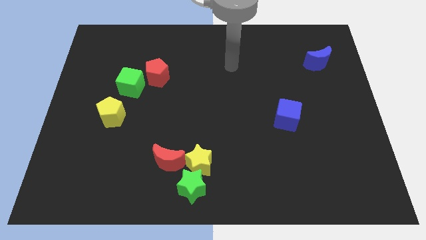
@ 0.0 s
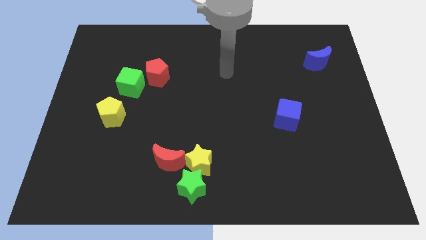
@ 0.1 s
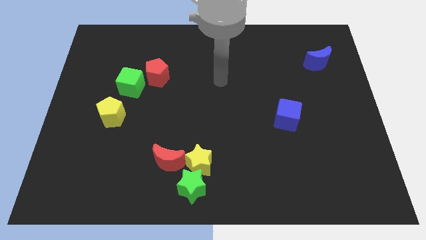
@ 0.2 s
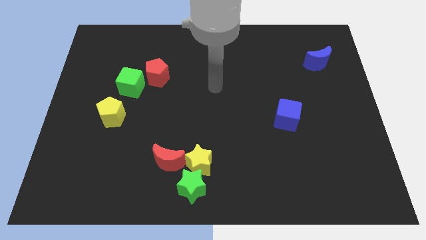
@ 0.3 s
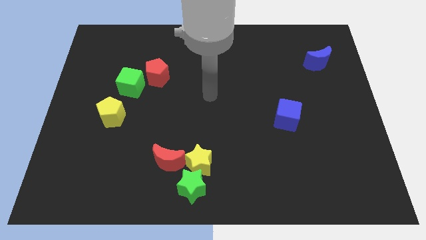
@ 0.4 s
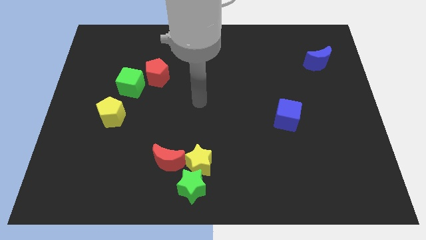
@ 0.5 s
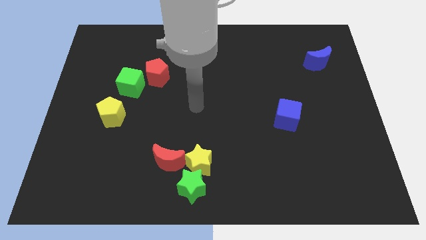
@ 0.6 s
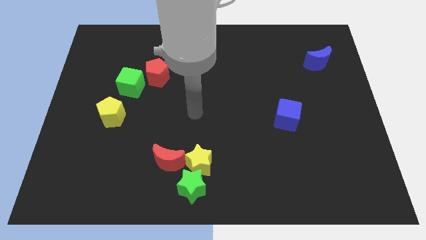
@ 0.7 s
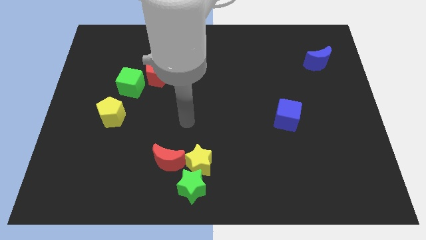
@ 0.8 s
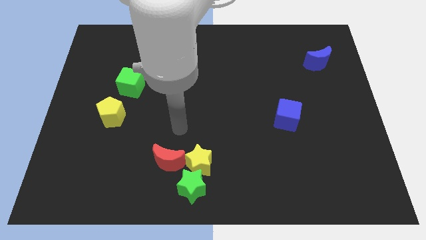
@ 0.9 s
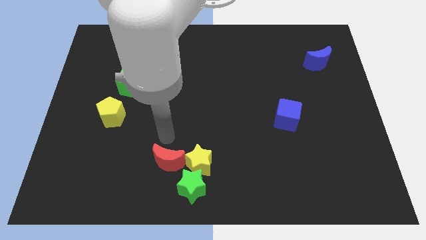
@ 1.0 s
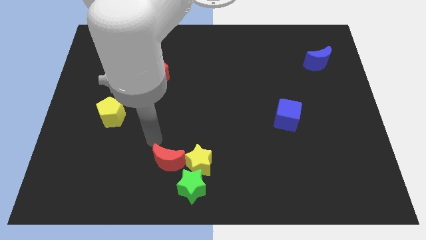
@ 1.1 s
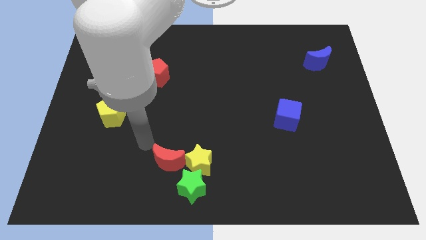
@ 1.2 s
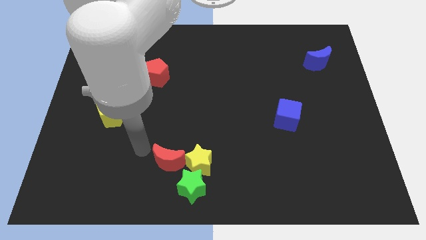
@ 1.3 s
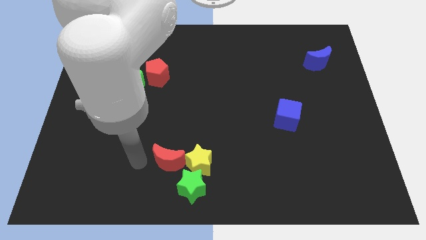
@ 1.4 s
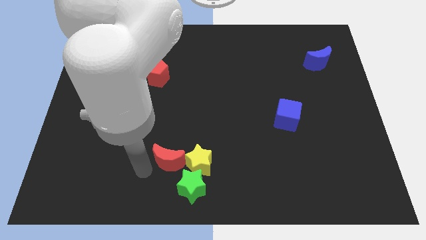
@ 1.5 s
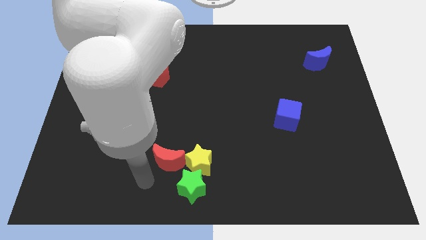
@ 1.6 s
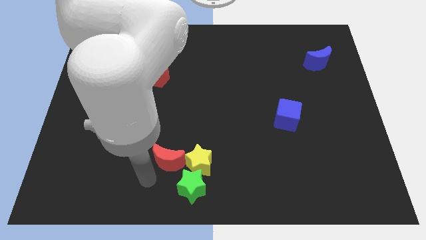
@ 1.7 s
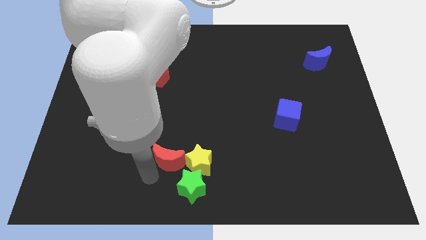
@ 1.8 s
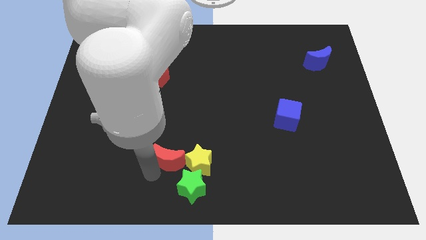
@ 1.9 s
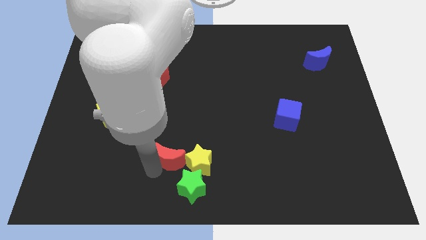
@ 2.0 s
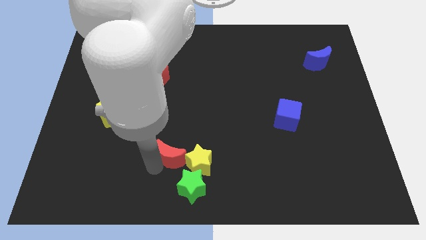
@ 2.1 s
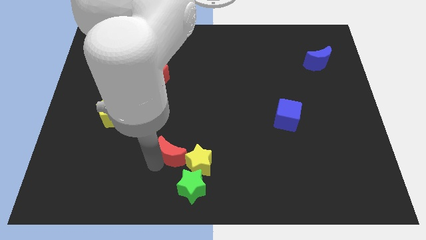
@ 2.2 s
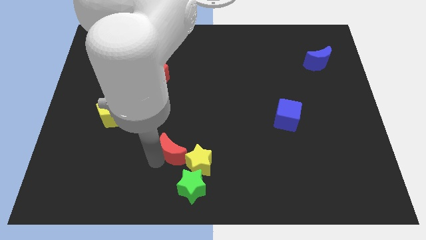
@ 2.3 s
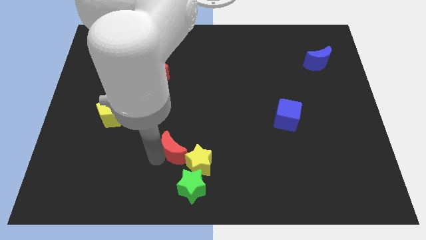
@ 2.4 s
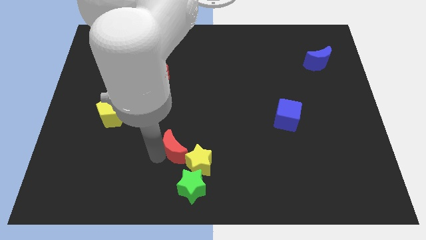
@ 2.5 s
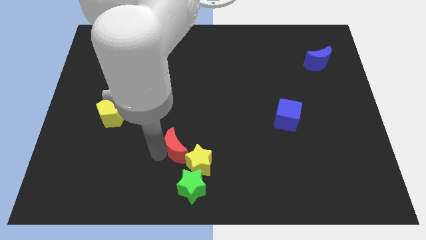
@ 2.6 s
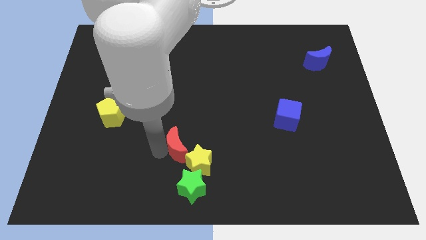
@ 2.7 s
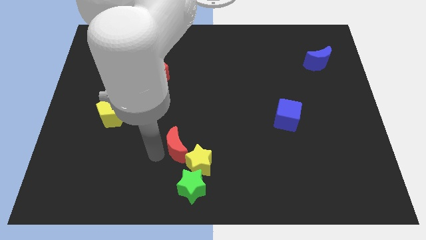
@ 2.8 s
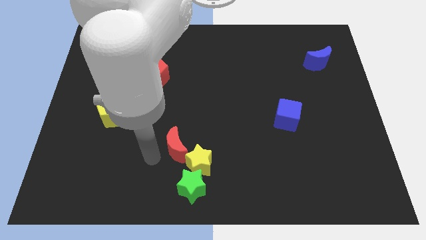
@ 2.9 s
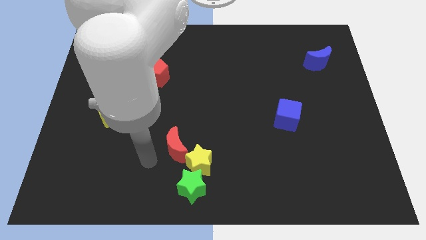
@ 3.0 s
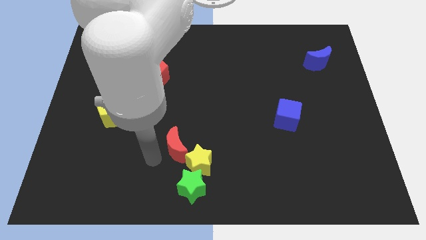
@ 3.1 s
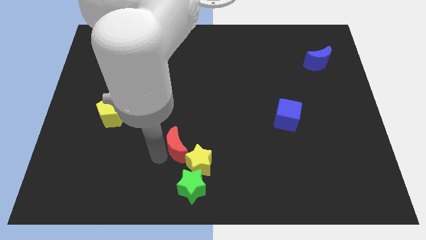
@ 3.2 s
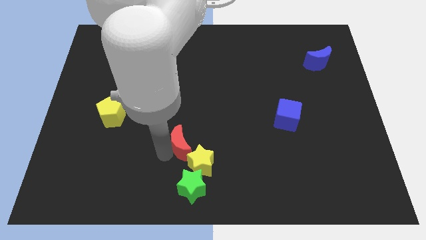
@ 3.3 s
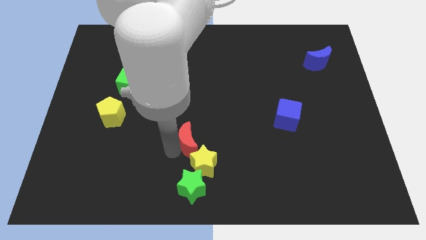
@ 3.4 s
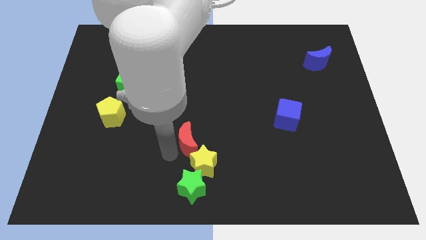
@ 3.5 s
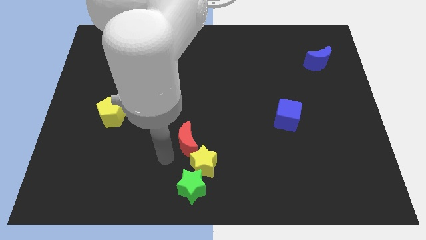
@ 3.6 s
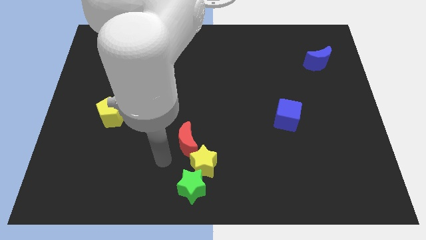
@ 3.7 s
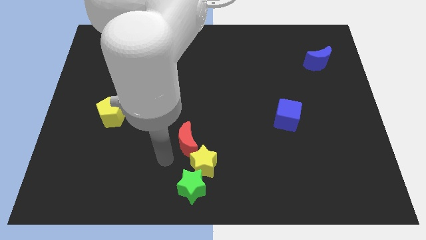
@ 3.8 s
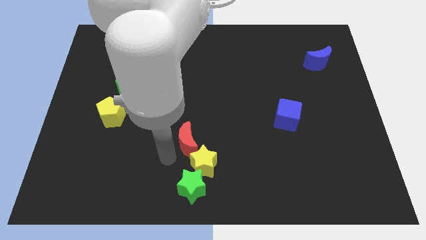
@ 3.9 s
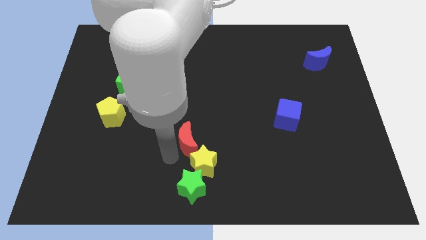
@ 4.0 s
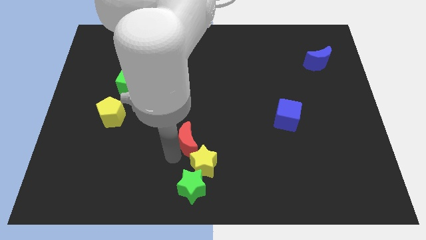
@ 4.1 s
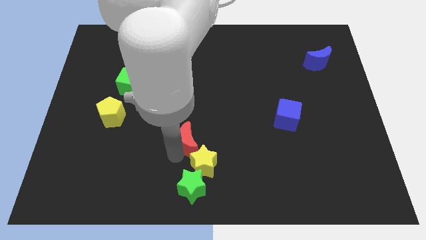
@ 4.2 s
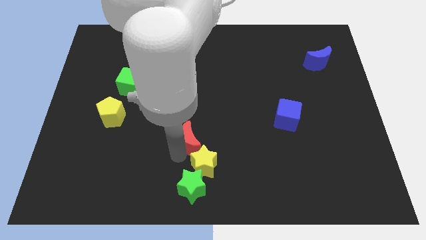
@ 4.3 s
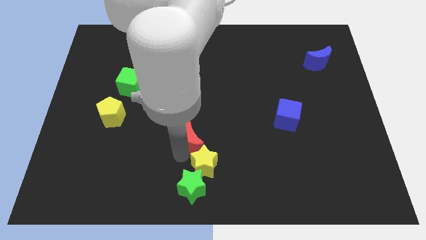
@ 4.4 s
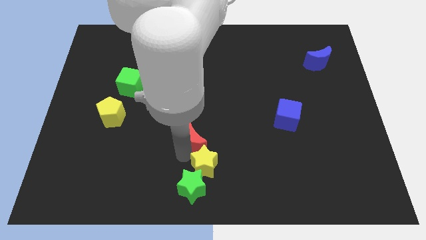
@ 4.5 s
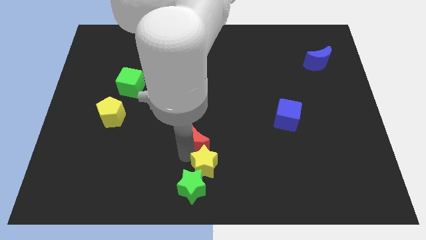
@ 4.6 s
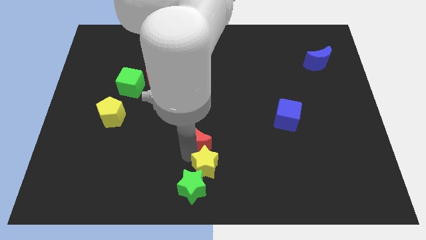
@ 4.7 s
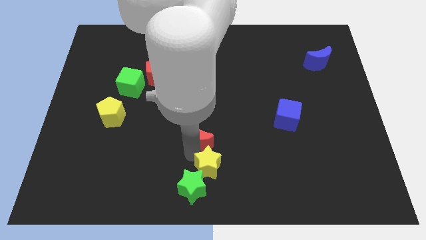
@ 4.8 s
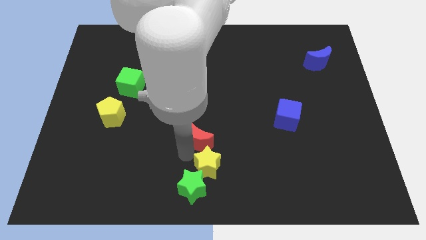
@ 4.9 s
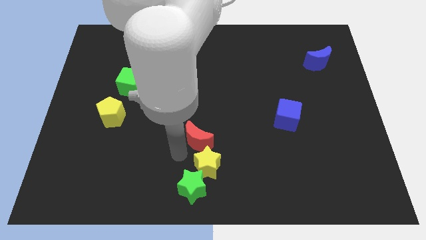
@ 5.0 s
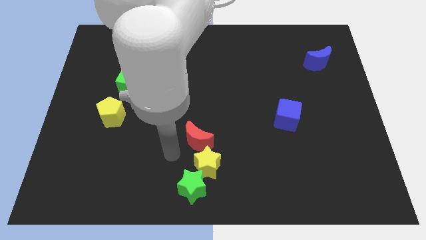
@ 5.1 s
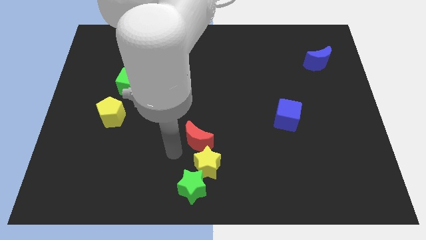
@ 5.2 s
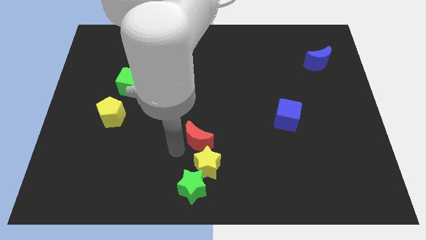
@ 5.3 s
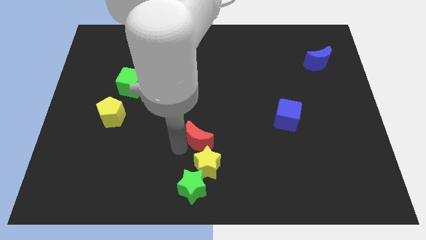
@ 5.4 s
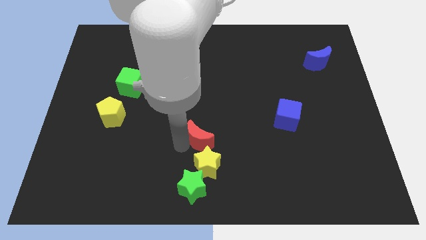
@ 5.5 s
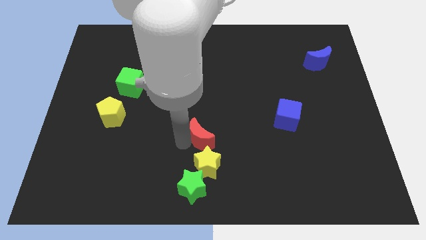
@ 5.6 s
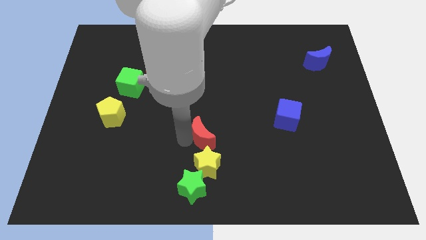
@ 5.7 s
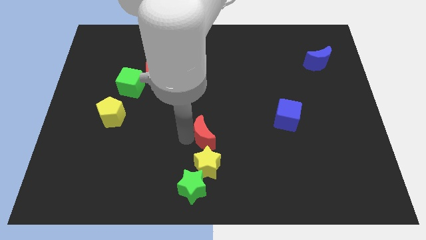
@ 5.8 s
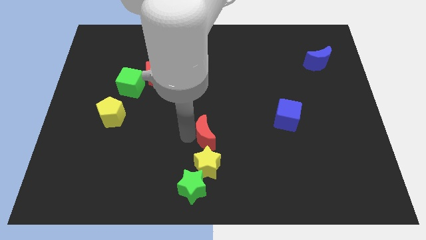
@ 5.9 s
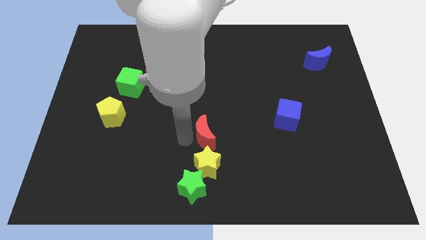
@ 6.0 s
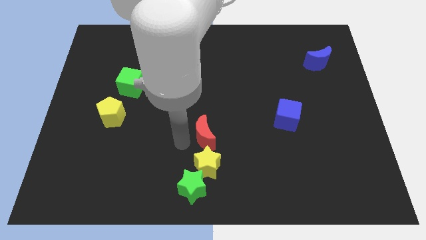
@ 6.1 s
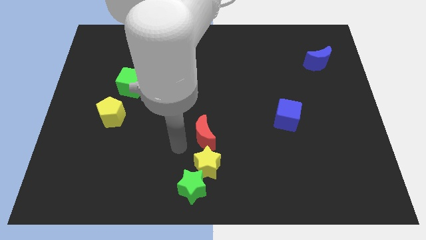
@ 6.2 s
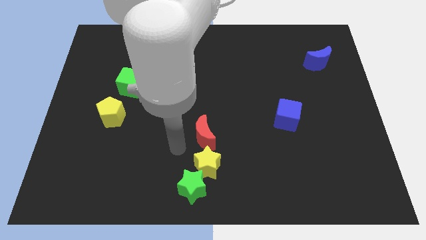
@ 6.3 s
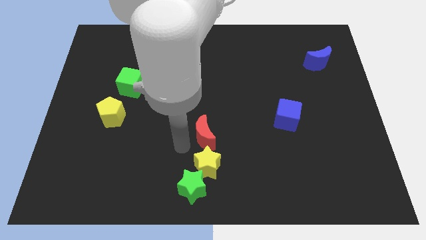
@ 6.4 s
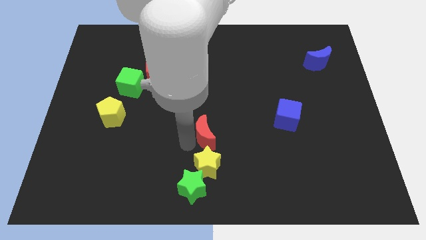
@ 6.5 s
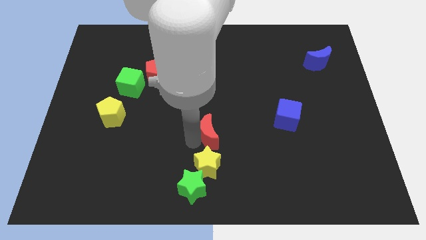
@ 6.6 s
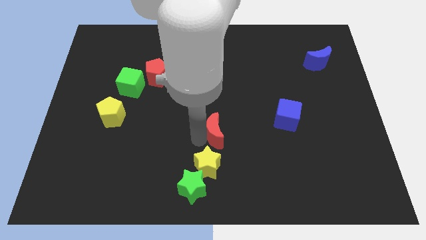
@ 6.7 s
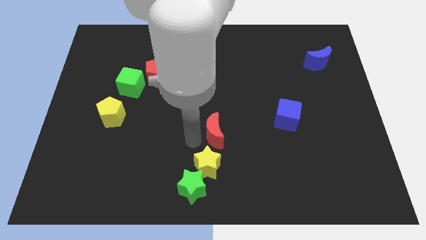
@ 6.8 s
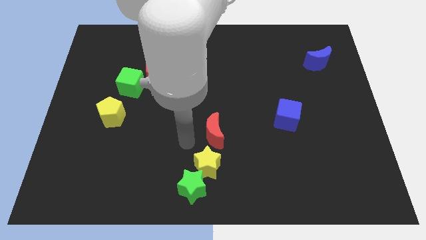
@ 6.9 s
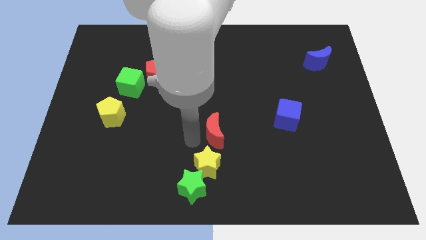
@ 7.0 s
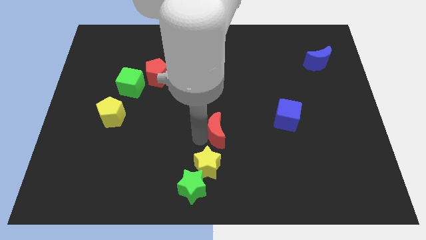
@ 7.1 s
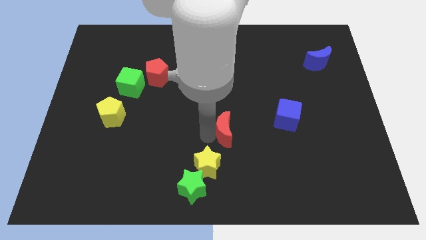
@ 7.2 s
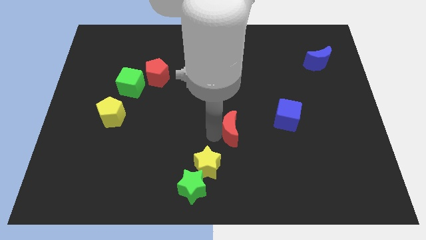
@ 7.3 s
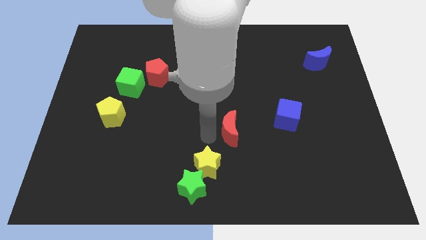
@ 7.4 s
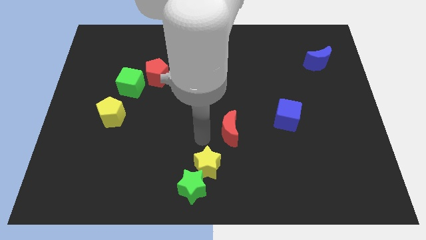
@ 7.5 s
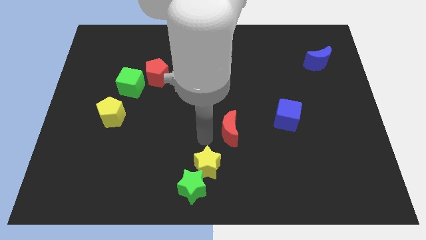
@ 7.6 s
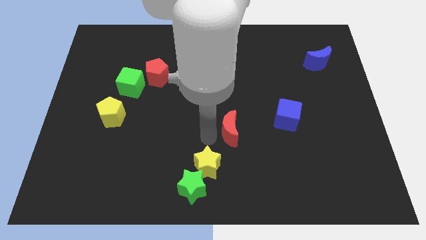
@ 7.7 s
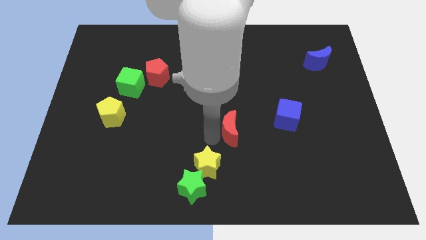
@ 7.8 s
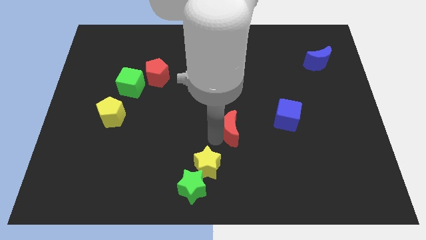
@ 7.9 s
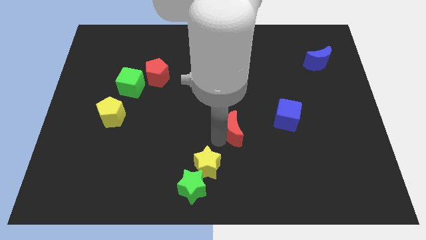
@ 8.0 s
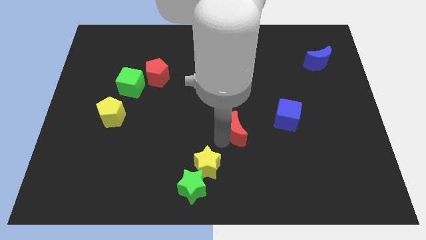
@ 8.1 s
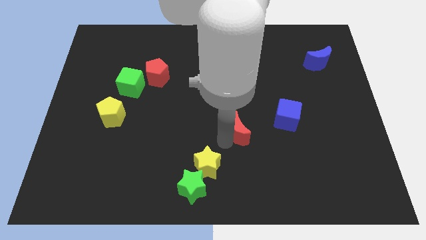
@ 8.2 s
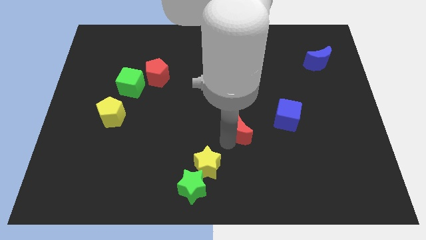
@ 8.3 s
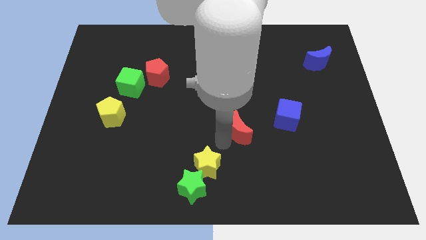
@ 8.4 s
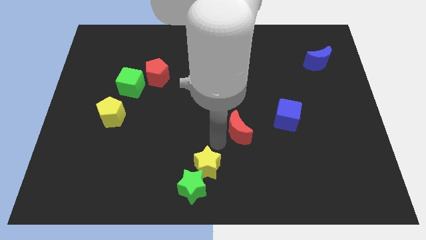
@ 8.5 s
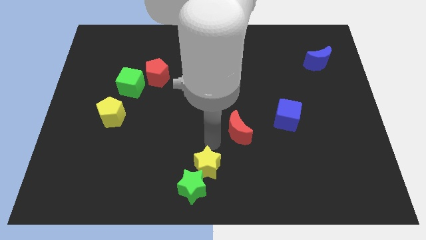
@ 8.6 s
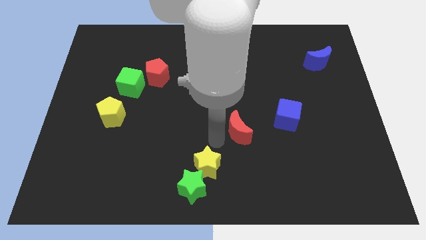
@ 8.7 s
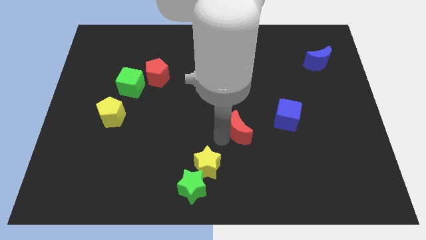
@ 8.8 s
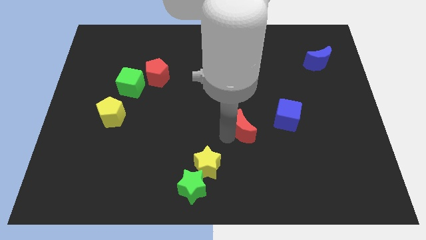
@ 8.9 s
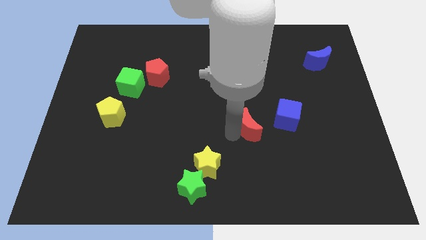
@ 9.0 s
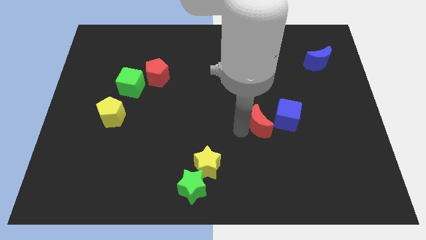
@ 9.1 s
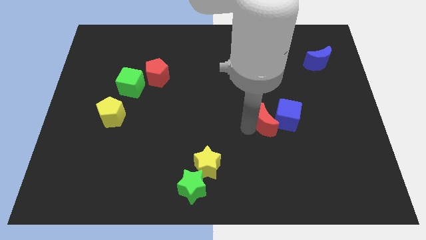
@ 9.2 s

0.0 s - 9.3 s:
put the red moon close to the blue cube
